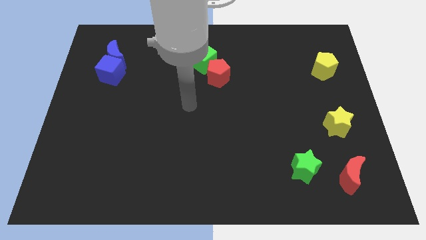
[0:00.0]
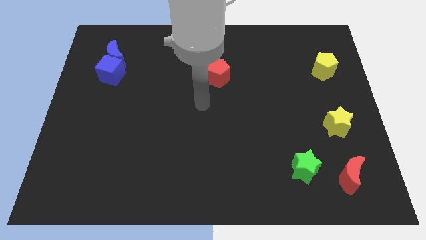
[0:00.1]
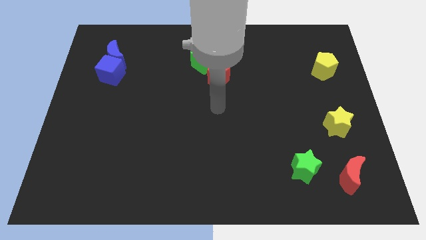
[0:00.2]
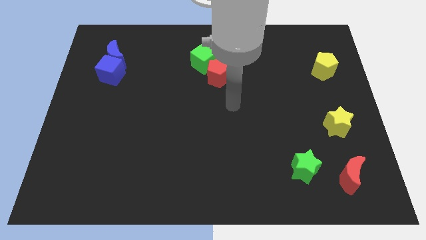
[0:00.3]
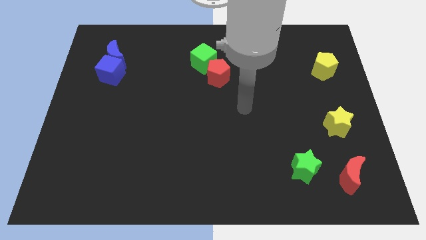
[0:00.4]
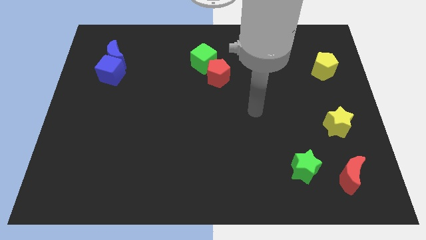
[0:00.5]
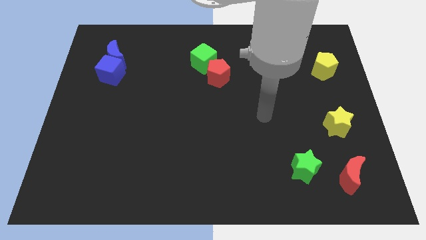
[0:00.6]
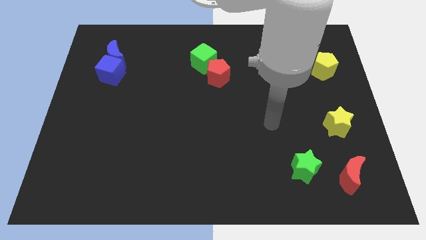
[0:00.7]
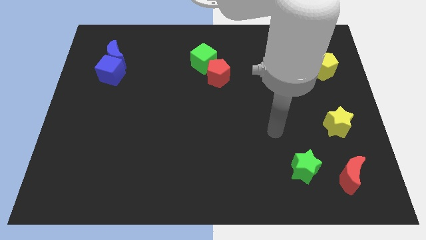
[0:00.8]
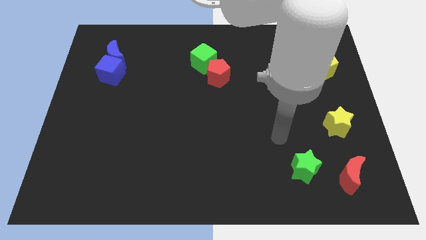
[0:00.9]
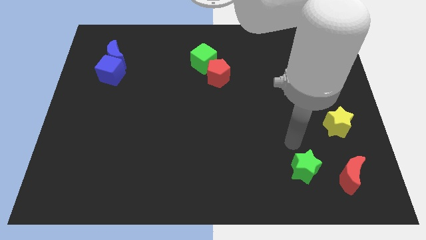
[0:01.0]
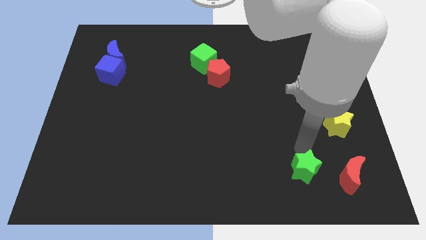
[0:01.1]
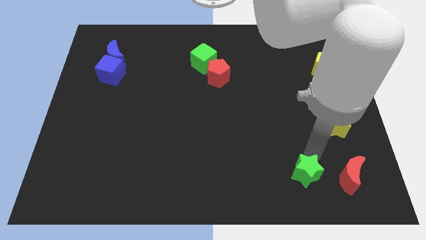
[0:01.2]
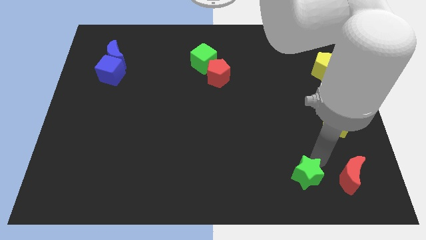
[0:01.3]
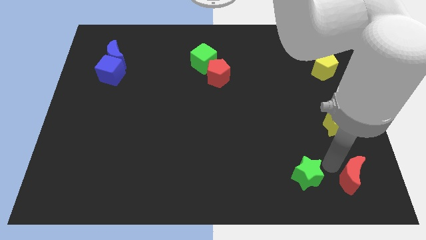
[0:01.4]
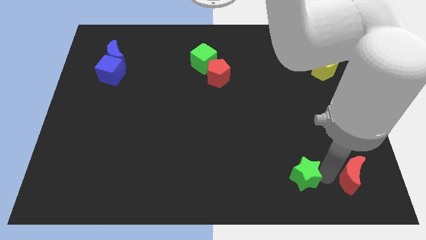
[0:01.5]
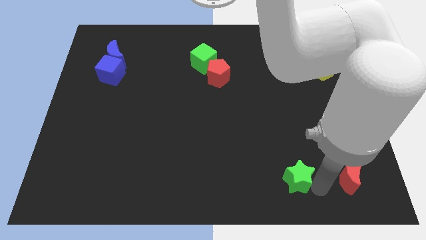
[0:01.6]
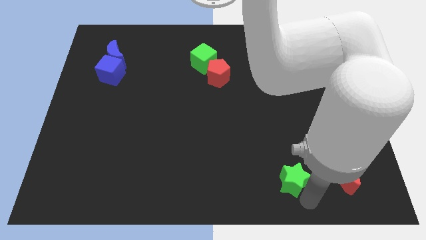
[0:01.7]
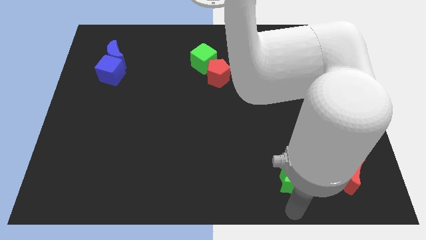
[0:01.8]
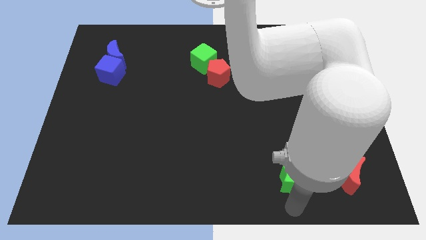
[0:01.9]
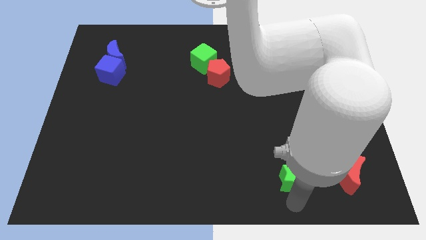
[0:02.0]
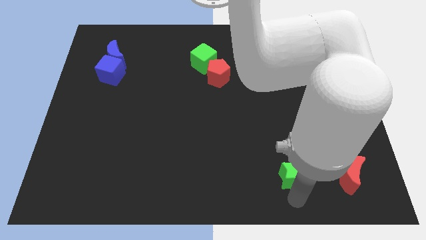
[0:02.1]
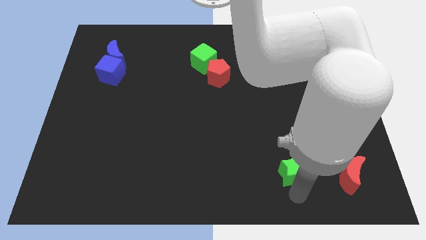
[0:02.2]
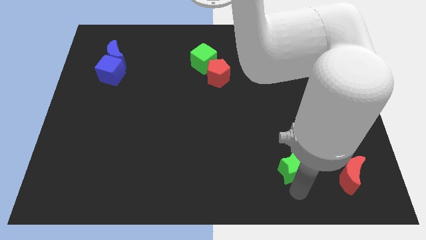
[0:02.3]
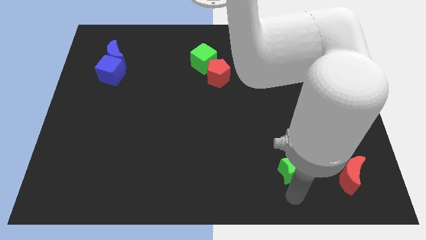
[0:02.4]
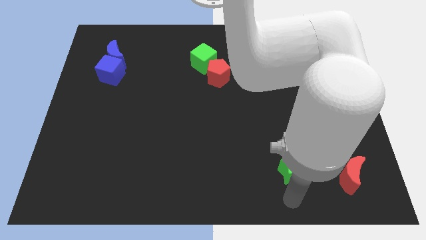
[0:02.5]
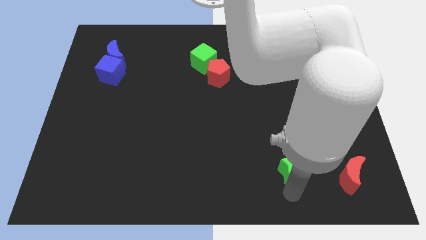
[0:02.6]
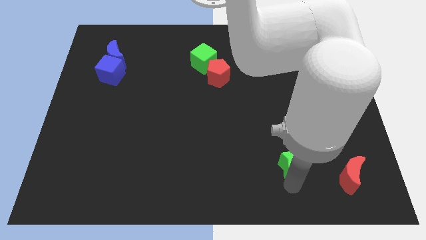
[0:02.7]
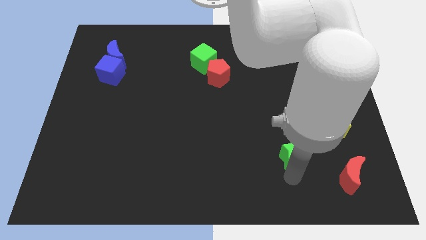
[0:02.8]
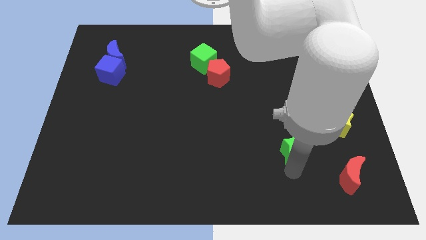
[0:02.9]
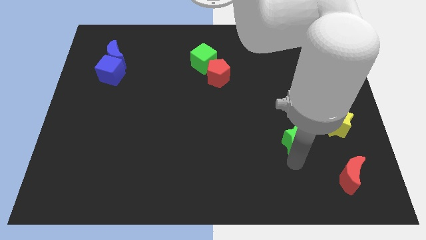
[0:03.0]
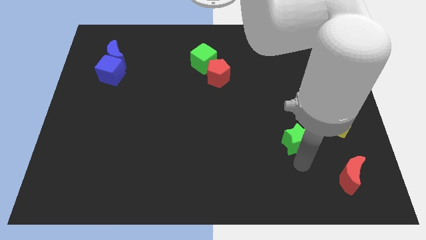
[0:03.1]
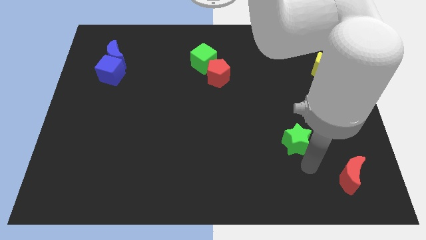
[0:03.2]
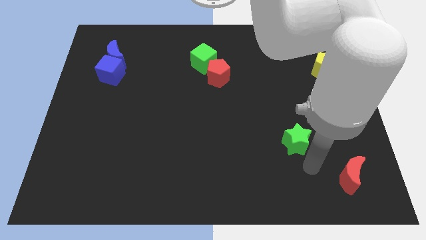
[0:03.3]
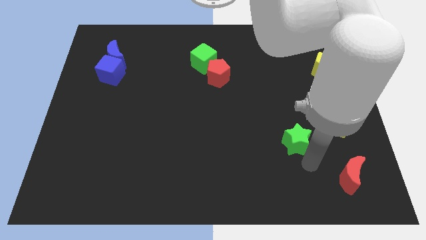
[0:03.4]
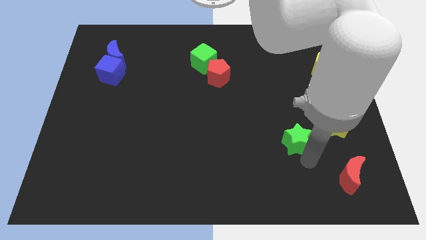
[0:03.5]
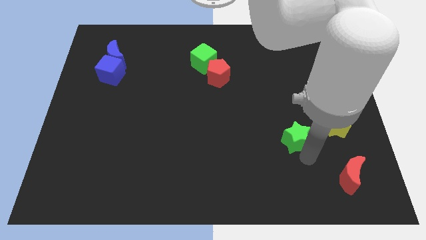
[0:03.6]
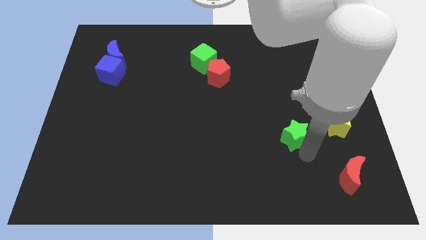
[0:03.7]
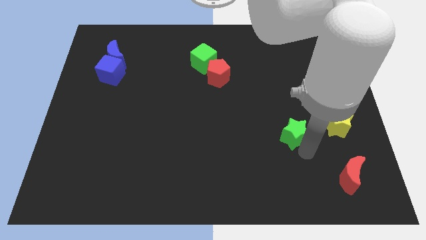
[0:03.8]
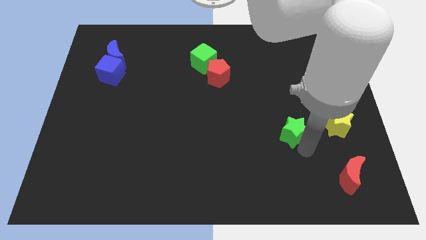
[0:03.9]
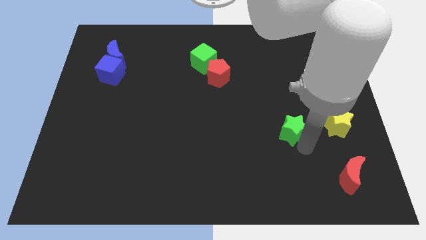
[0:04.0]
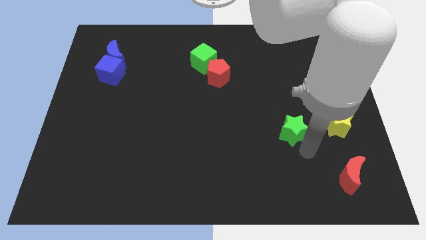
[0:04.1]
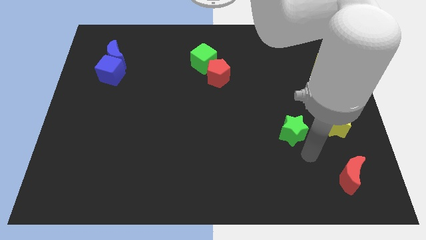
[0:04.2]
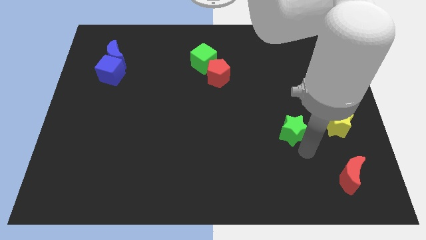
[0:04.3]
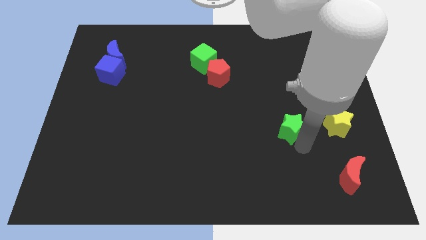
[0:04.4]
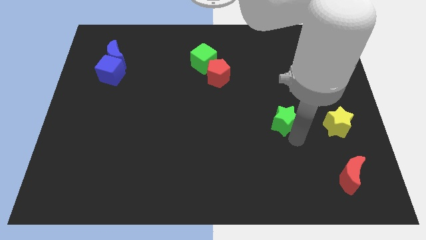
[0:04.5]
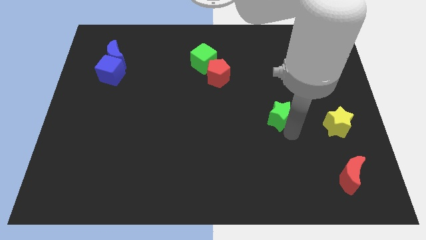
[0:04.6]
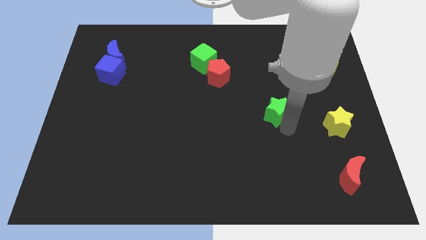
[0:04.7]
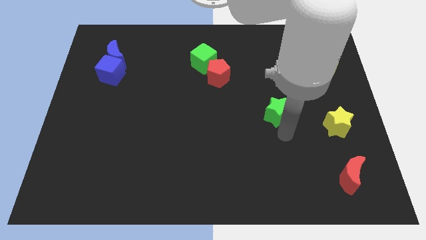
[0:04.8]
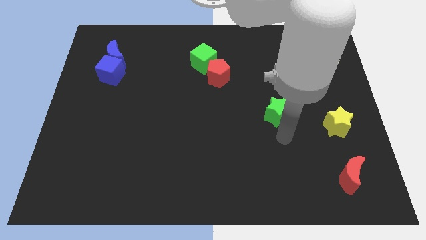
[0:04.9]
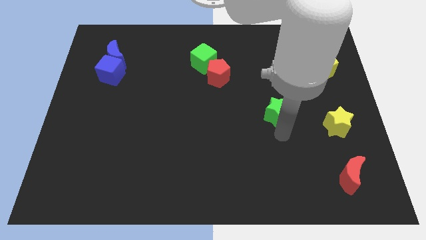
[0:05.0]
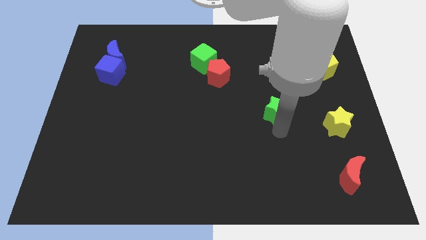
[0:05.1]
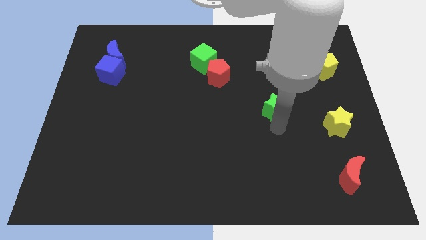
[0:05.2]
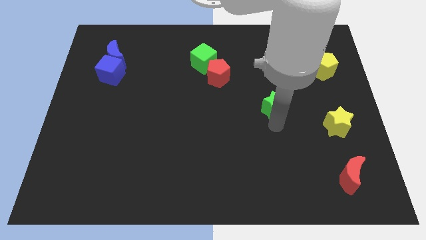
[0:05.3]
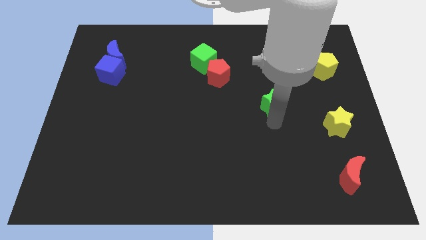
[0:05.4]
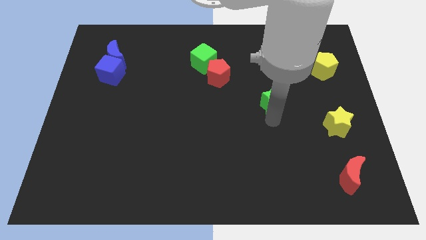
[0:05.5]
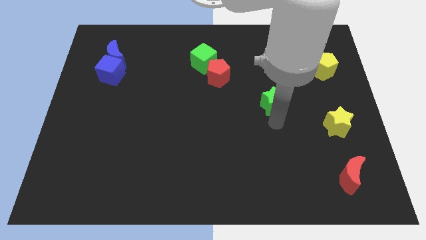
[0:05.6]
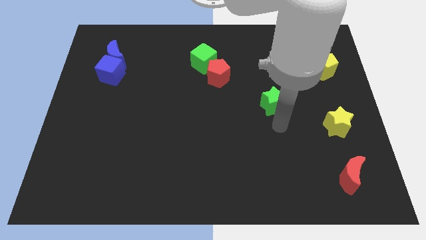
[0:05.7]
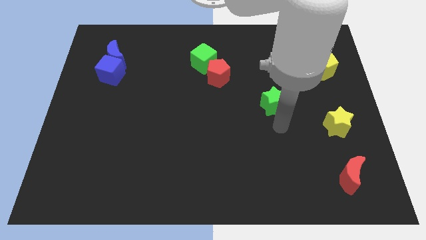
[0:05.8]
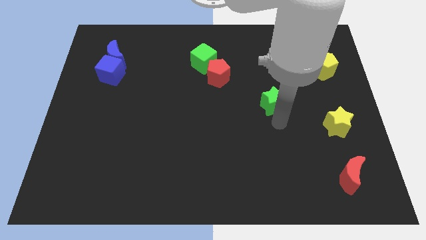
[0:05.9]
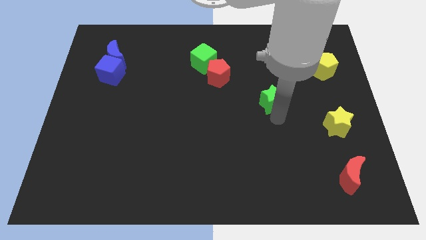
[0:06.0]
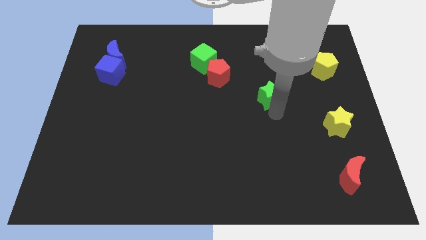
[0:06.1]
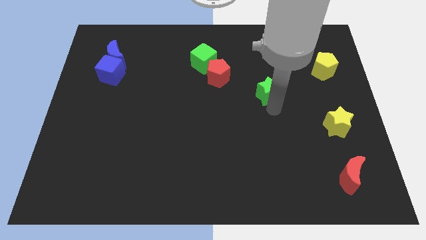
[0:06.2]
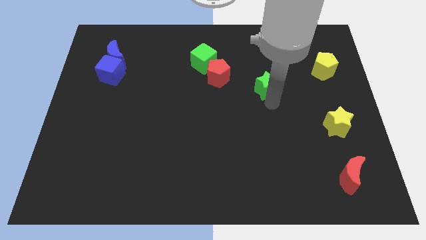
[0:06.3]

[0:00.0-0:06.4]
slide the green star to the right of the red pentagon

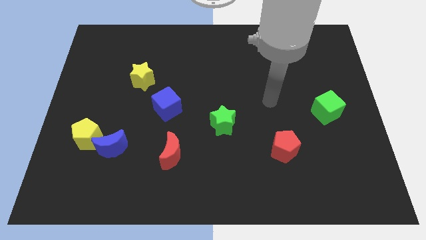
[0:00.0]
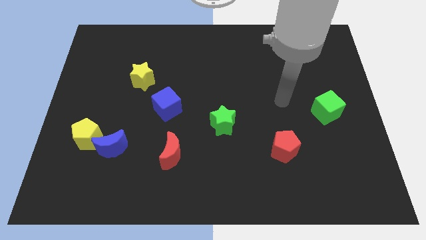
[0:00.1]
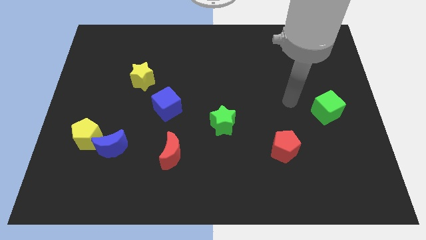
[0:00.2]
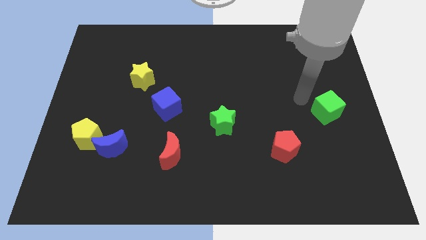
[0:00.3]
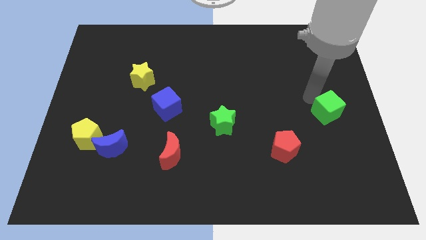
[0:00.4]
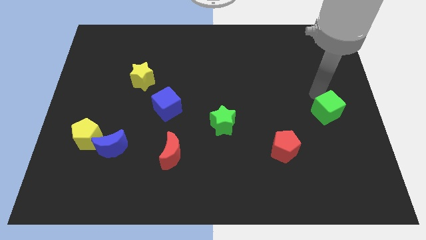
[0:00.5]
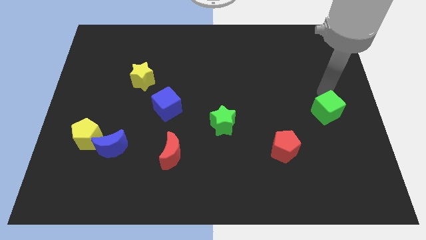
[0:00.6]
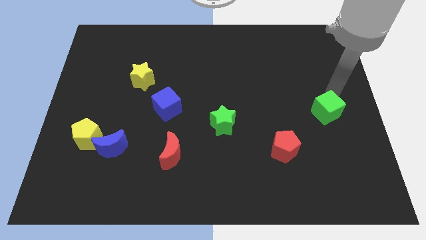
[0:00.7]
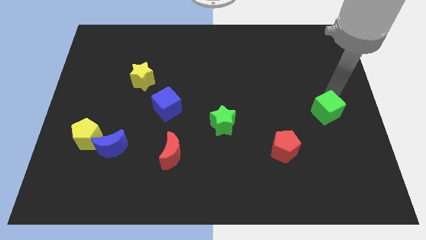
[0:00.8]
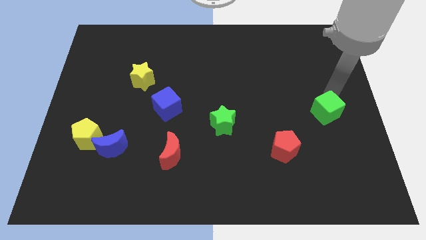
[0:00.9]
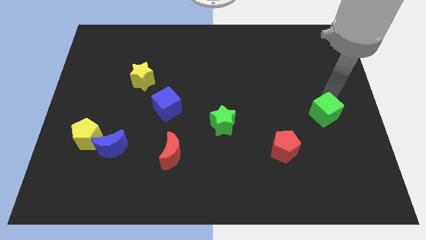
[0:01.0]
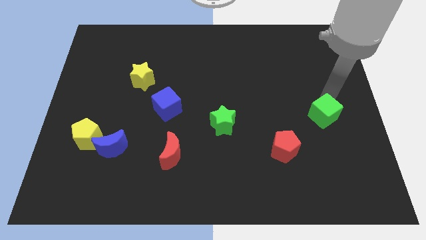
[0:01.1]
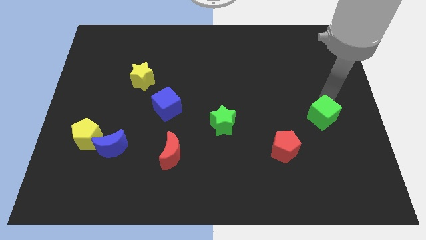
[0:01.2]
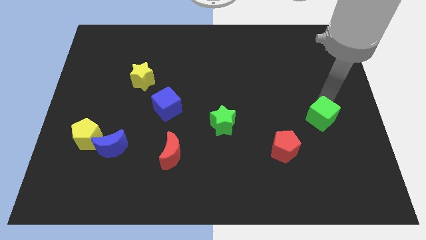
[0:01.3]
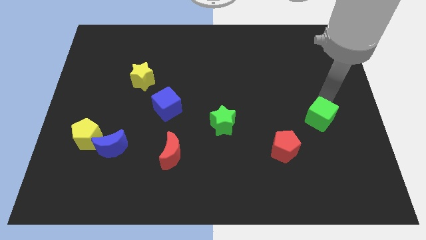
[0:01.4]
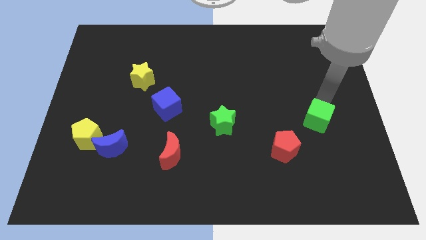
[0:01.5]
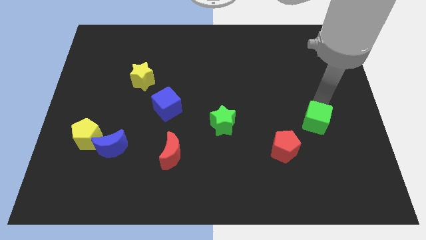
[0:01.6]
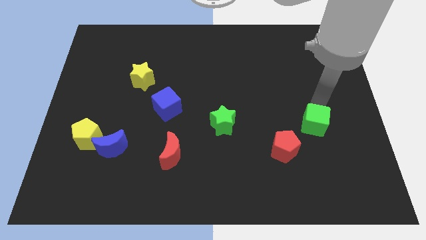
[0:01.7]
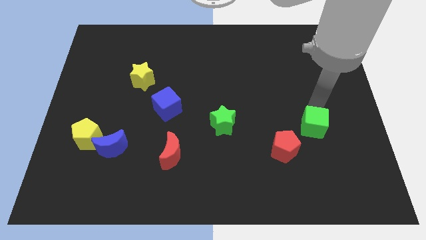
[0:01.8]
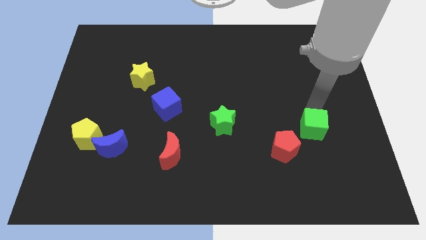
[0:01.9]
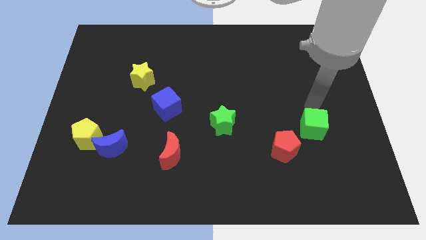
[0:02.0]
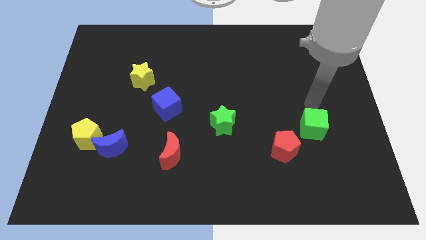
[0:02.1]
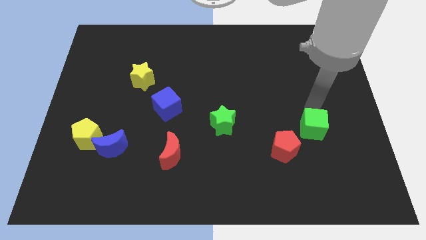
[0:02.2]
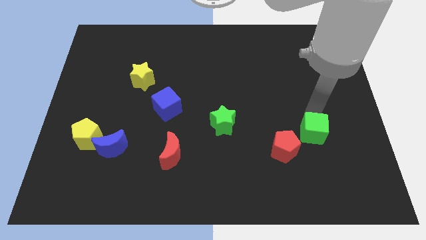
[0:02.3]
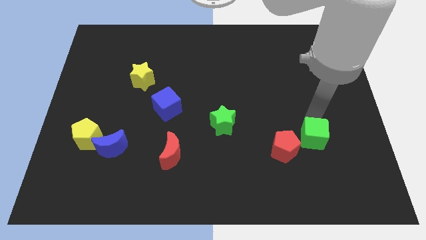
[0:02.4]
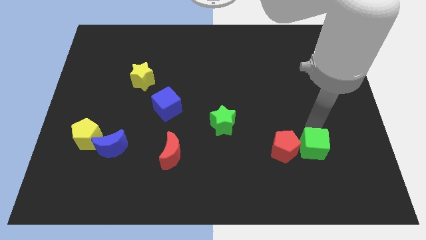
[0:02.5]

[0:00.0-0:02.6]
push the green cube diagonally down and to the right of the red pentagon
